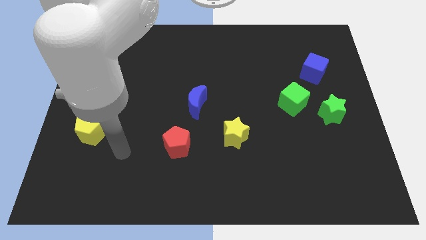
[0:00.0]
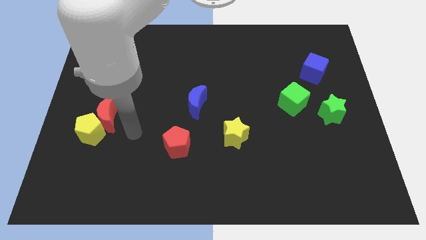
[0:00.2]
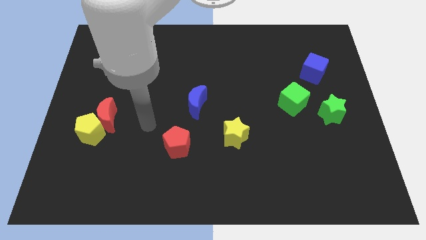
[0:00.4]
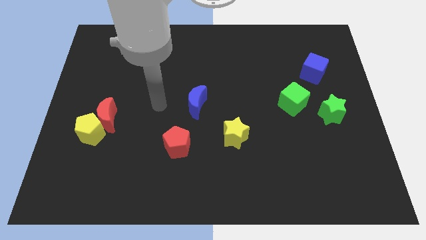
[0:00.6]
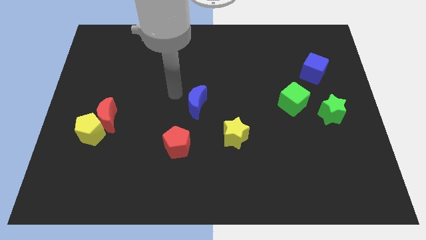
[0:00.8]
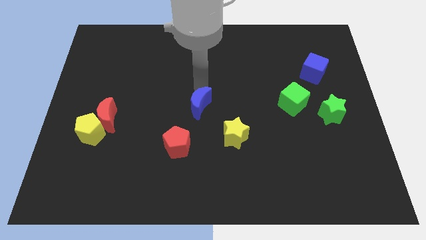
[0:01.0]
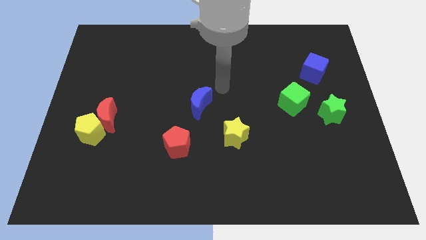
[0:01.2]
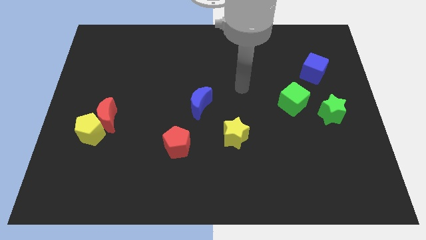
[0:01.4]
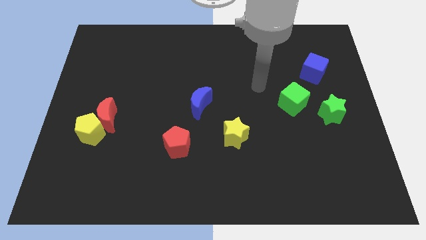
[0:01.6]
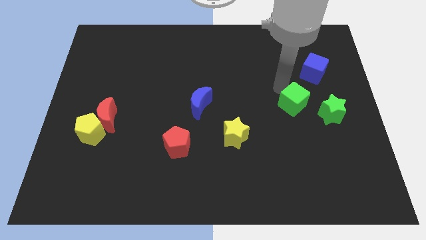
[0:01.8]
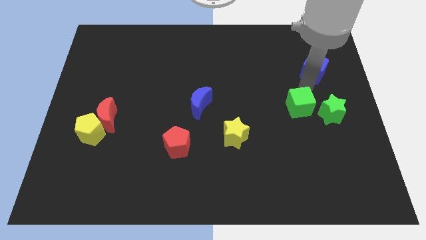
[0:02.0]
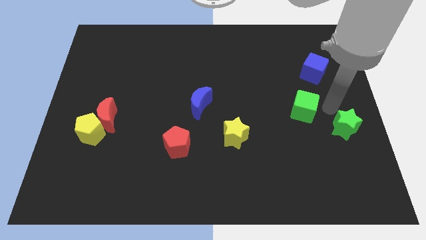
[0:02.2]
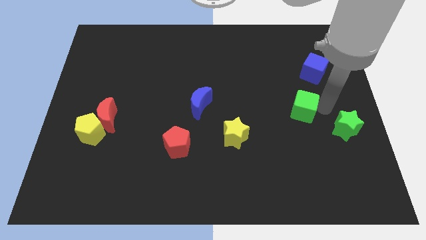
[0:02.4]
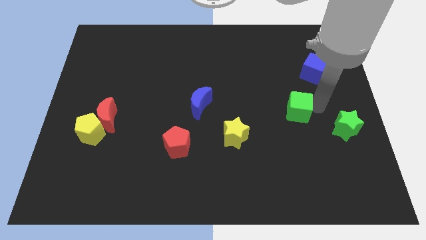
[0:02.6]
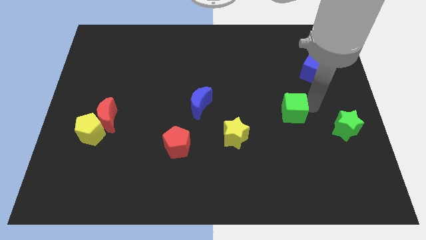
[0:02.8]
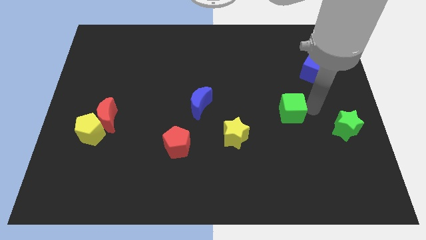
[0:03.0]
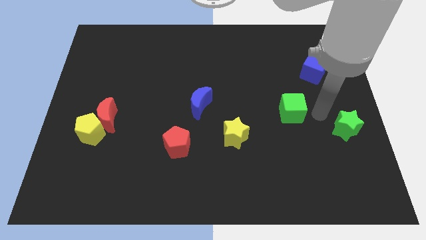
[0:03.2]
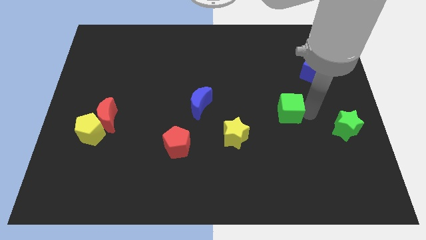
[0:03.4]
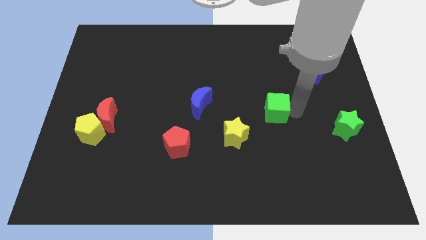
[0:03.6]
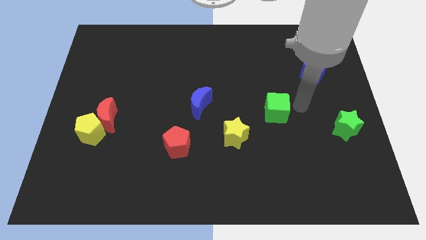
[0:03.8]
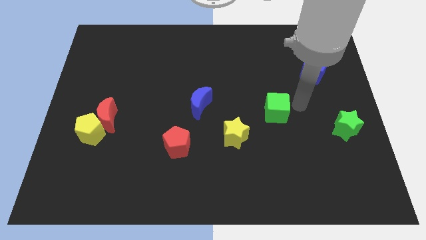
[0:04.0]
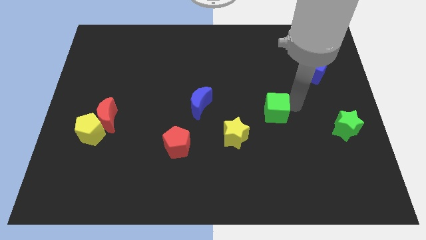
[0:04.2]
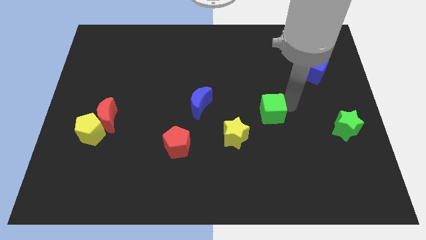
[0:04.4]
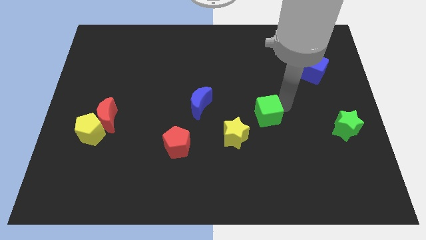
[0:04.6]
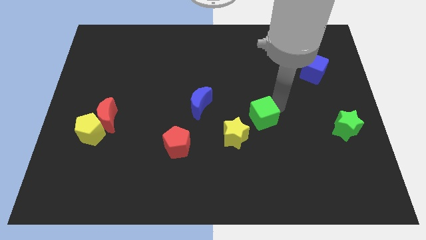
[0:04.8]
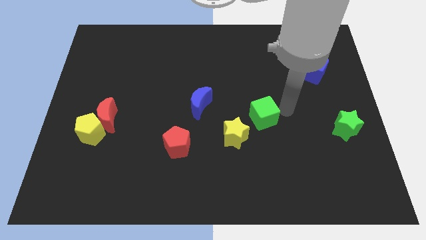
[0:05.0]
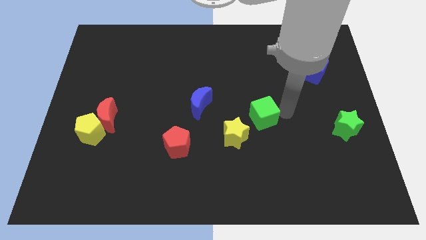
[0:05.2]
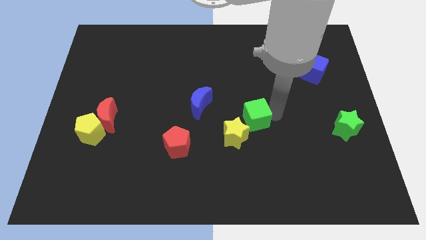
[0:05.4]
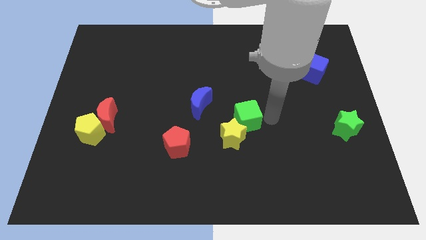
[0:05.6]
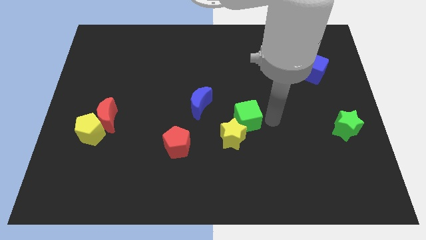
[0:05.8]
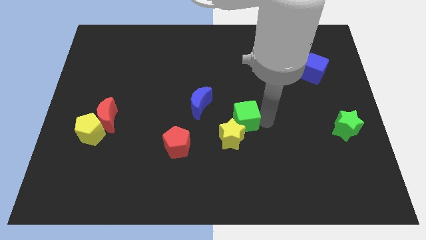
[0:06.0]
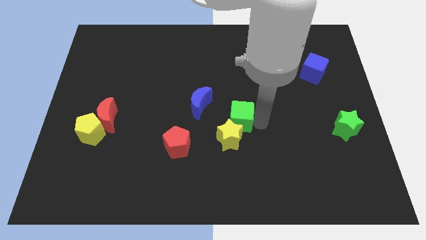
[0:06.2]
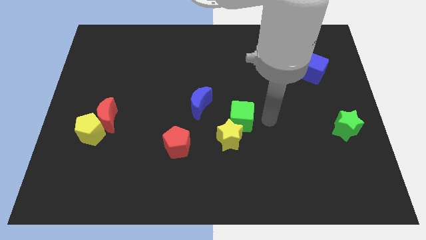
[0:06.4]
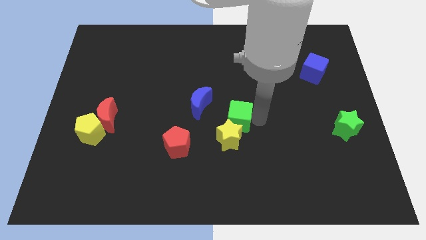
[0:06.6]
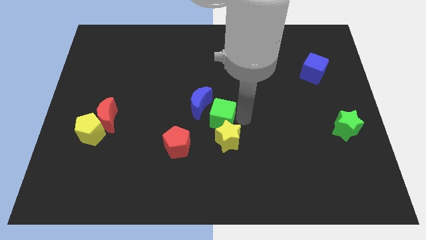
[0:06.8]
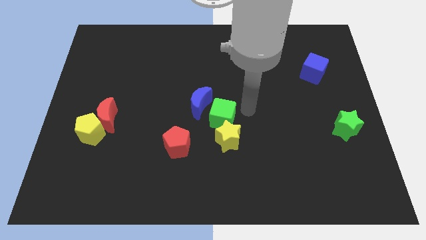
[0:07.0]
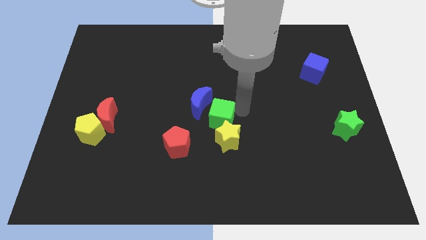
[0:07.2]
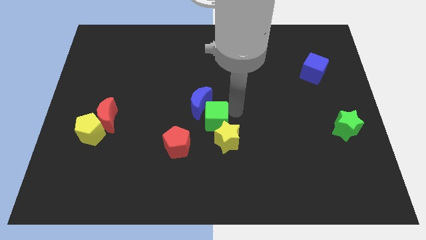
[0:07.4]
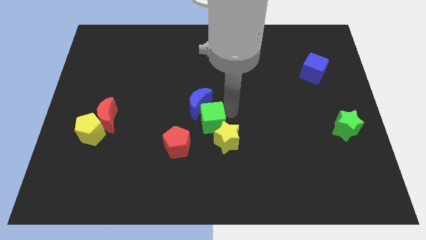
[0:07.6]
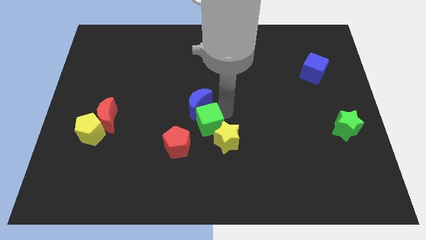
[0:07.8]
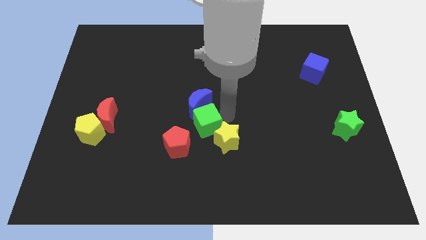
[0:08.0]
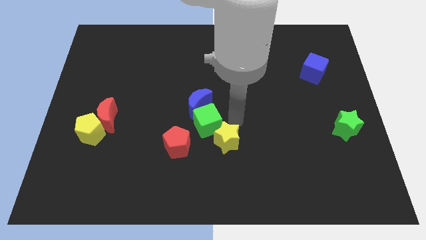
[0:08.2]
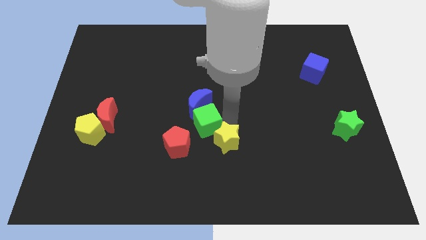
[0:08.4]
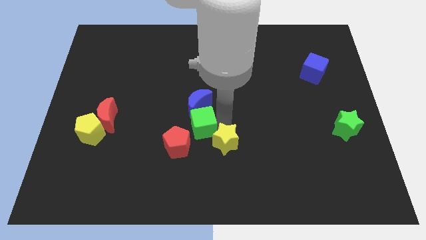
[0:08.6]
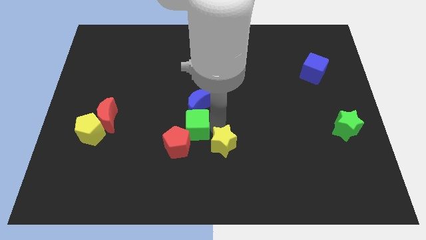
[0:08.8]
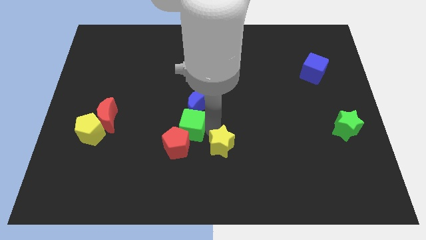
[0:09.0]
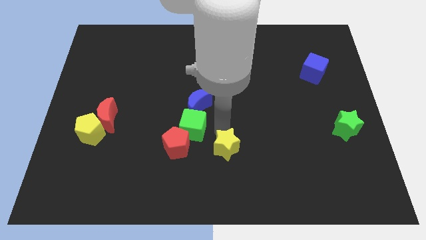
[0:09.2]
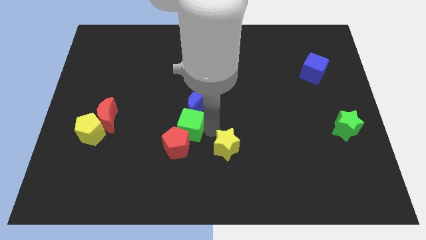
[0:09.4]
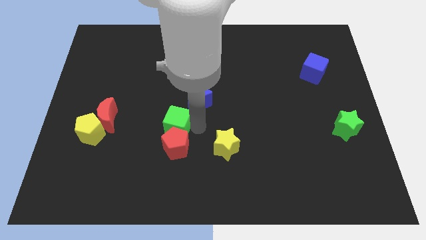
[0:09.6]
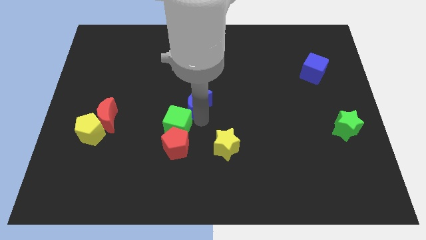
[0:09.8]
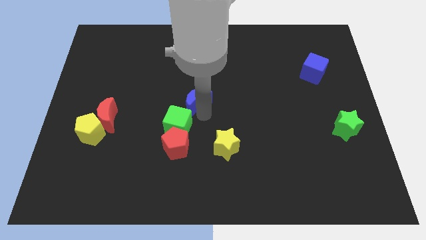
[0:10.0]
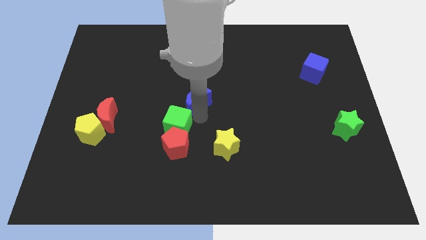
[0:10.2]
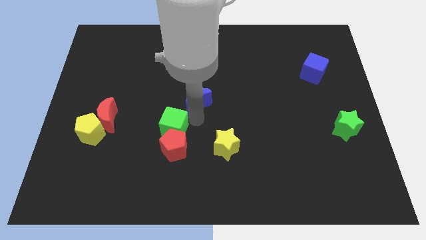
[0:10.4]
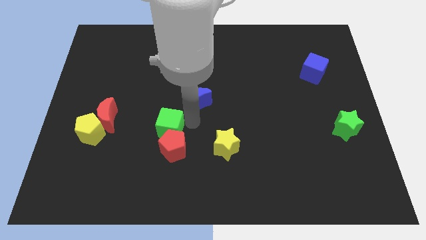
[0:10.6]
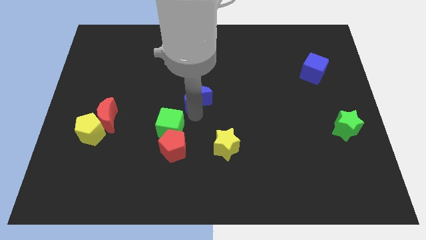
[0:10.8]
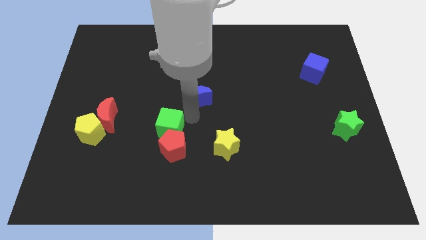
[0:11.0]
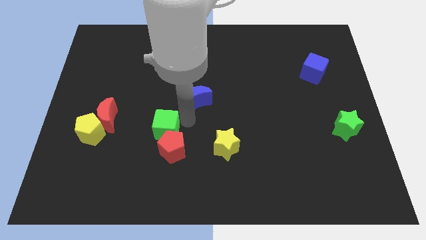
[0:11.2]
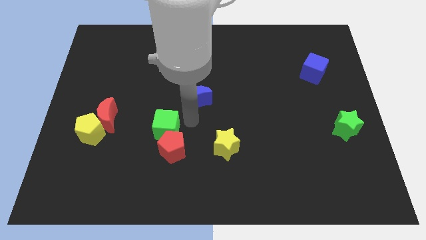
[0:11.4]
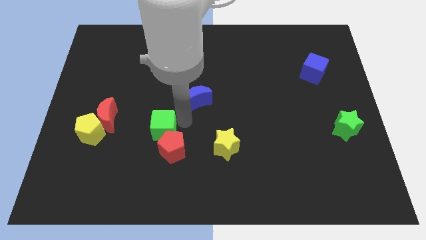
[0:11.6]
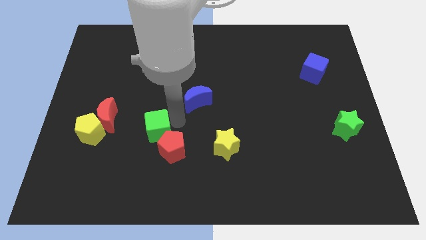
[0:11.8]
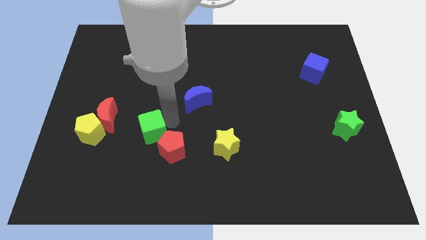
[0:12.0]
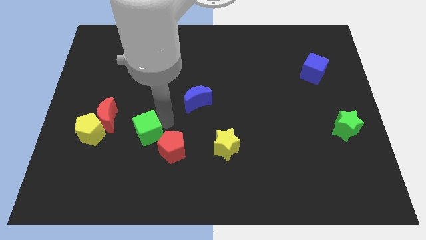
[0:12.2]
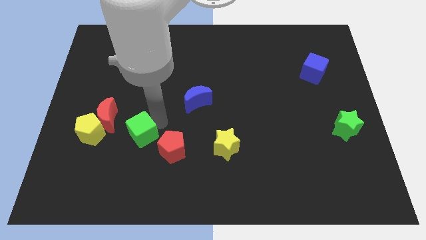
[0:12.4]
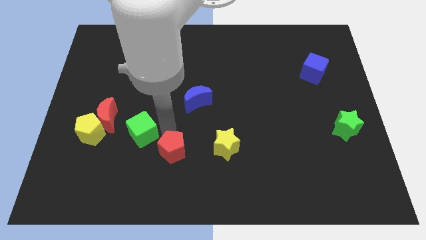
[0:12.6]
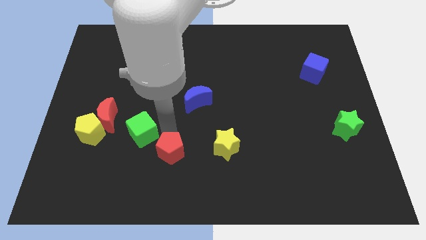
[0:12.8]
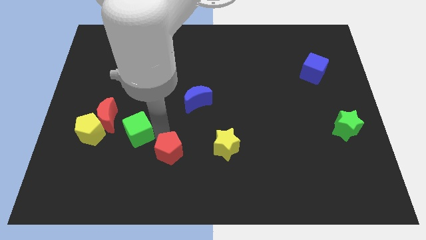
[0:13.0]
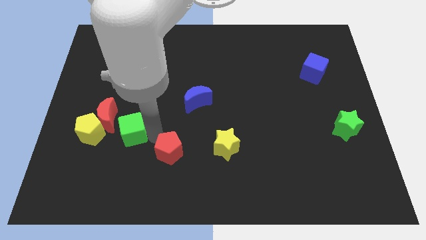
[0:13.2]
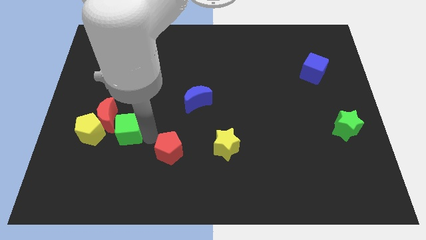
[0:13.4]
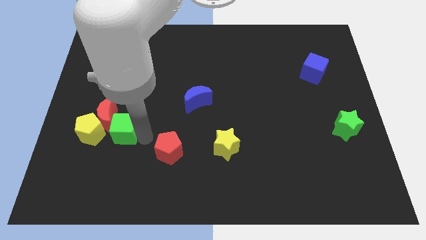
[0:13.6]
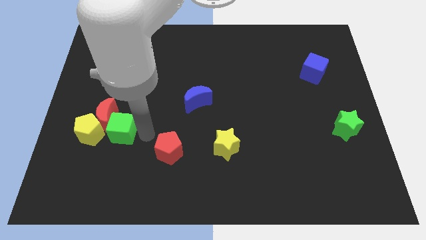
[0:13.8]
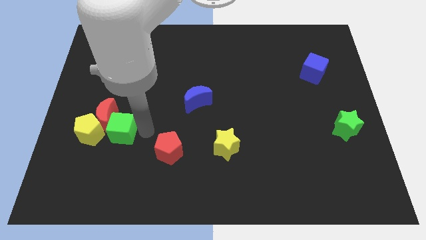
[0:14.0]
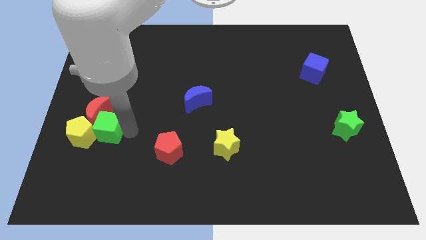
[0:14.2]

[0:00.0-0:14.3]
slide the green cube towards the yellow pentagon
